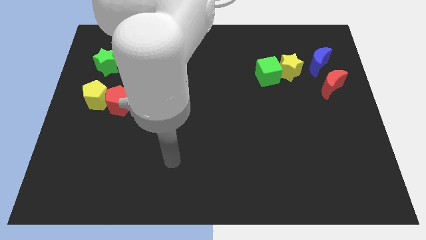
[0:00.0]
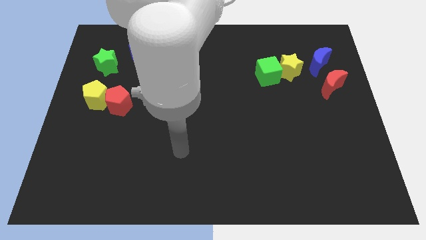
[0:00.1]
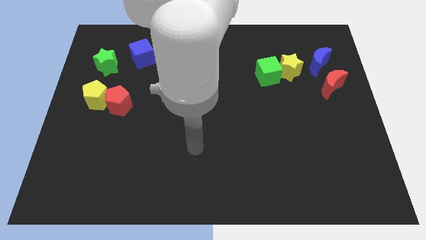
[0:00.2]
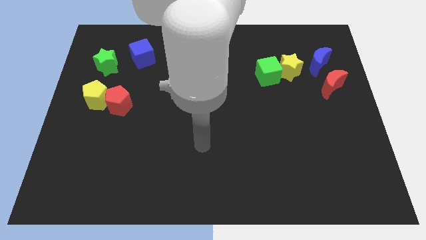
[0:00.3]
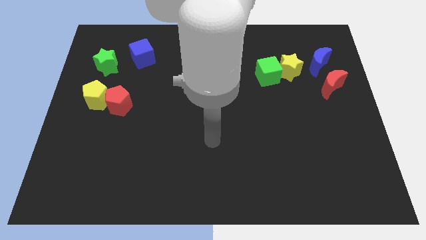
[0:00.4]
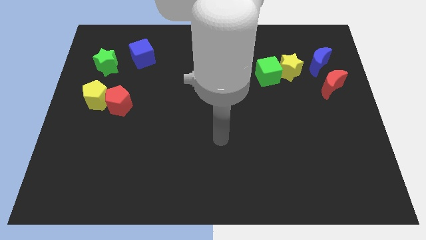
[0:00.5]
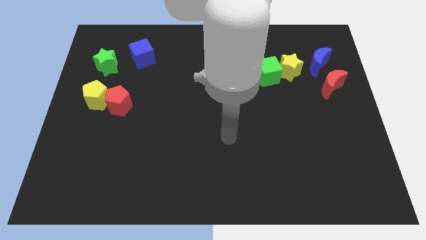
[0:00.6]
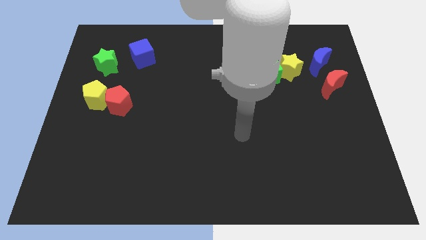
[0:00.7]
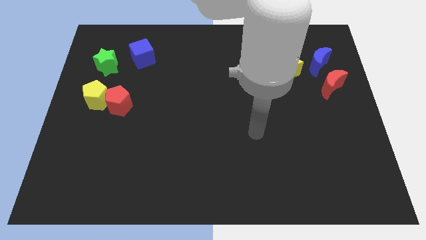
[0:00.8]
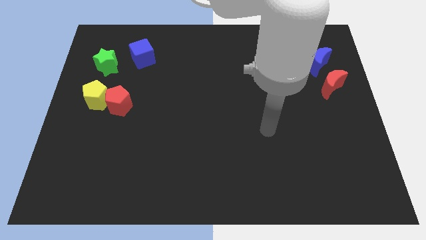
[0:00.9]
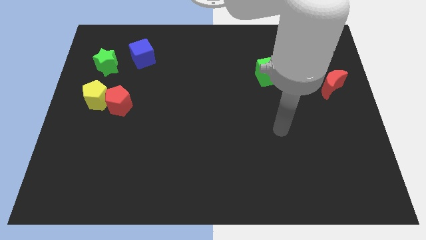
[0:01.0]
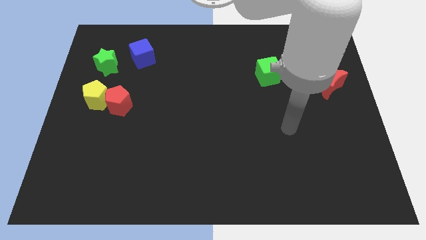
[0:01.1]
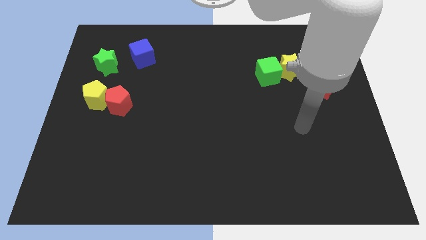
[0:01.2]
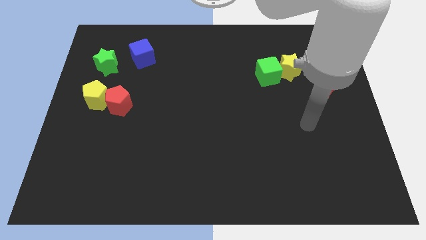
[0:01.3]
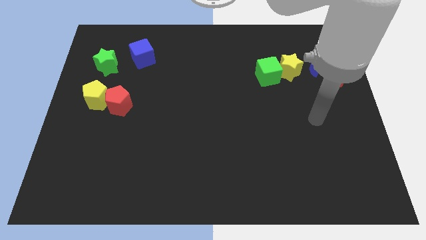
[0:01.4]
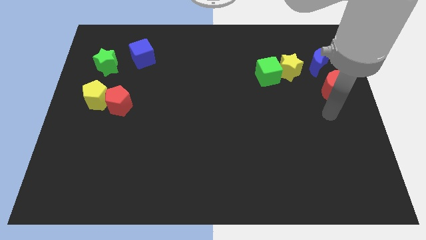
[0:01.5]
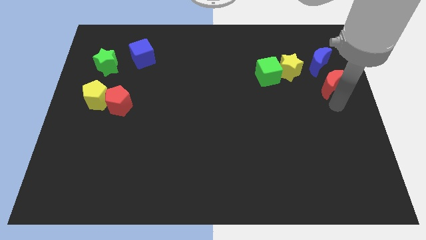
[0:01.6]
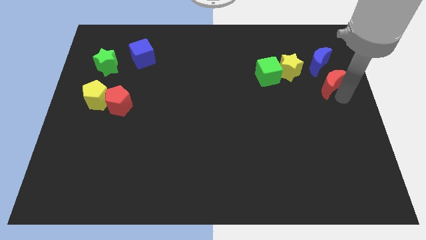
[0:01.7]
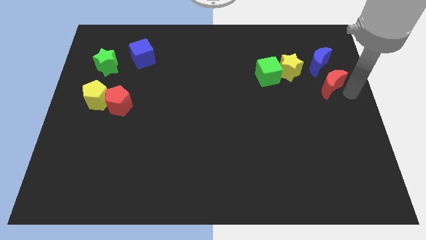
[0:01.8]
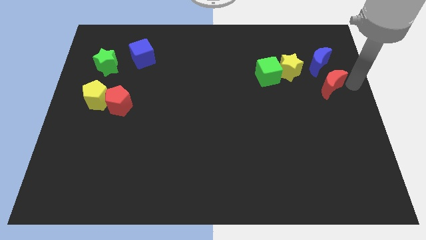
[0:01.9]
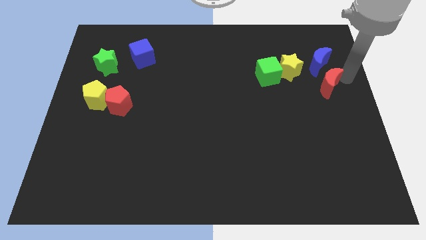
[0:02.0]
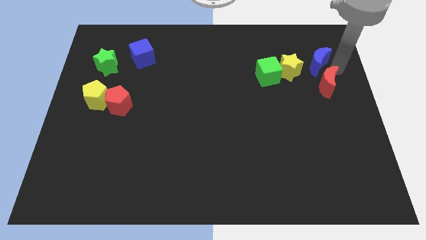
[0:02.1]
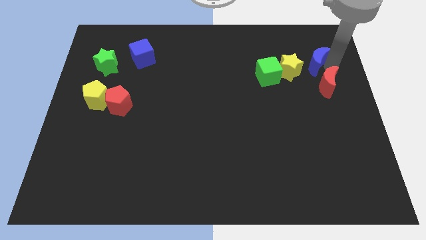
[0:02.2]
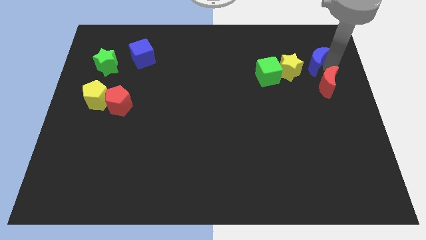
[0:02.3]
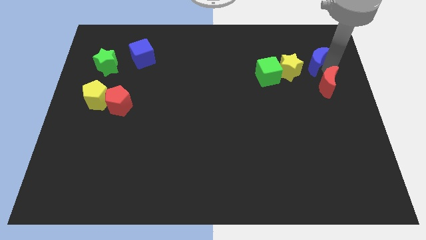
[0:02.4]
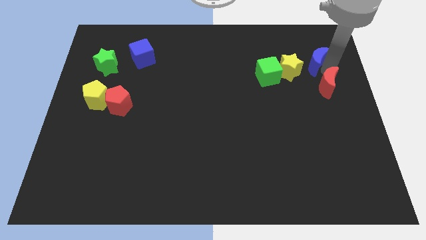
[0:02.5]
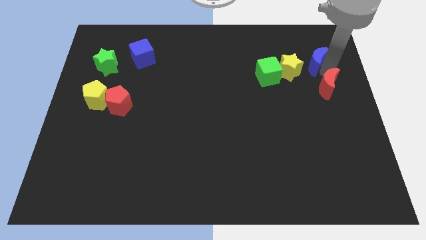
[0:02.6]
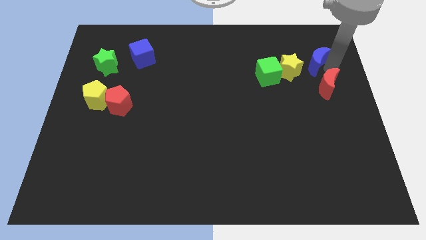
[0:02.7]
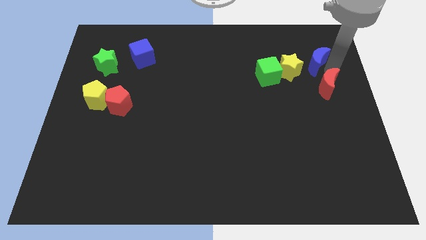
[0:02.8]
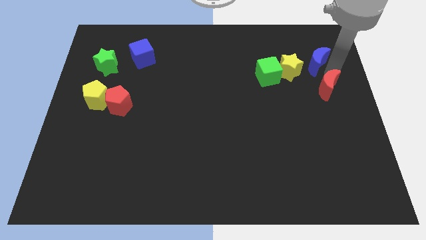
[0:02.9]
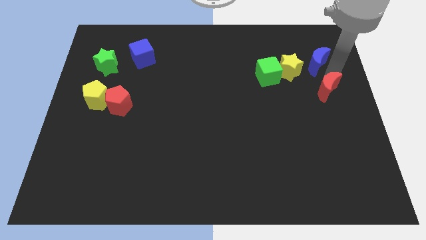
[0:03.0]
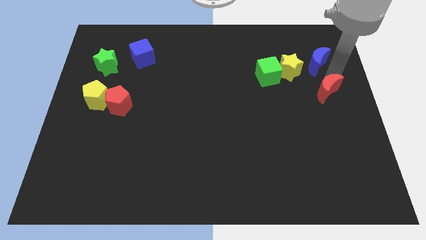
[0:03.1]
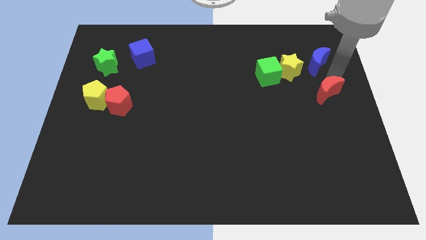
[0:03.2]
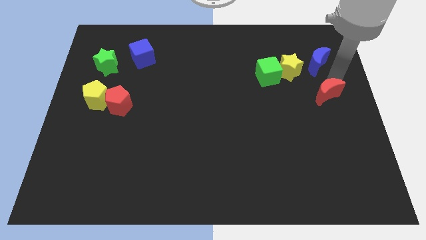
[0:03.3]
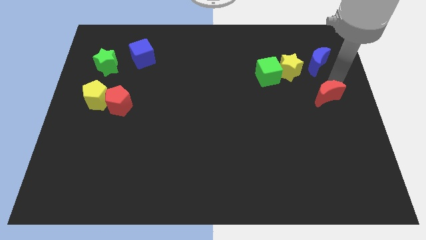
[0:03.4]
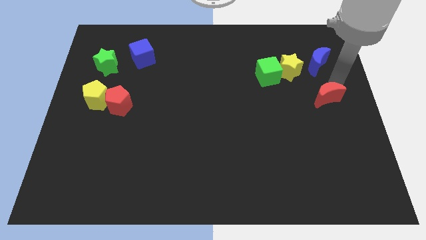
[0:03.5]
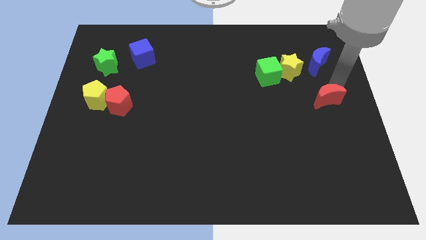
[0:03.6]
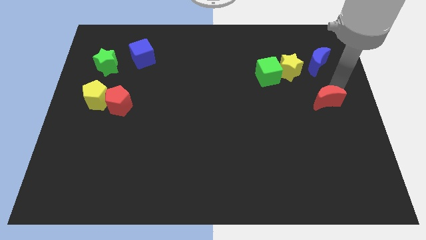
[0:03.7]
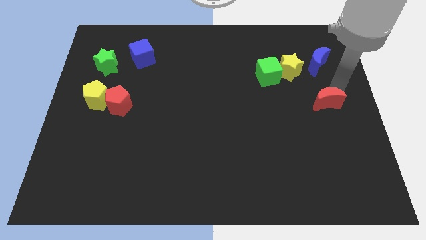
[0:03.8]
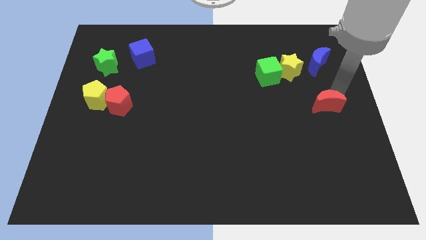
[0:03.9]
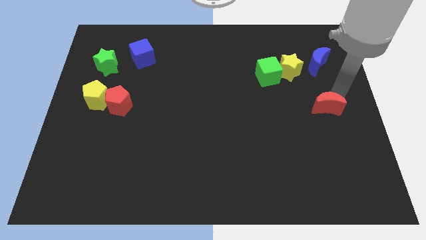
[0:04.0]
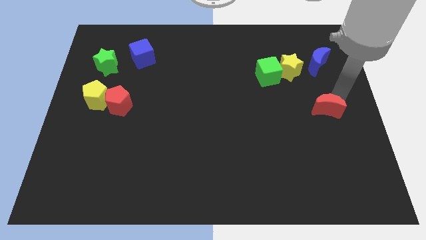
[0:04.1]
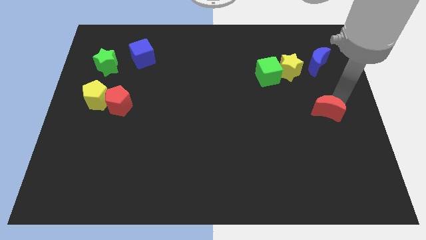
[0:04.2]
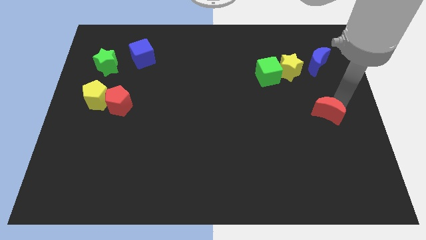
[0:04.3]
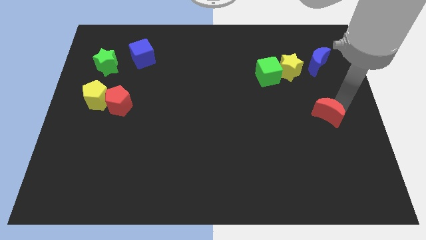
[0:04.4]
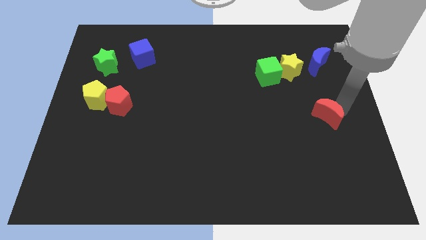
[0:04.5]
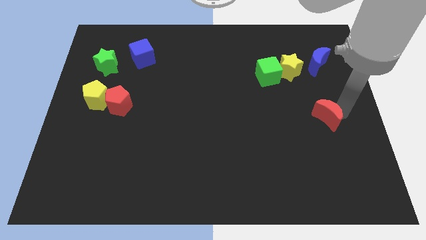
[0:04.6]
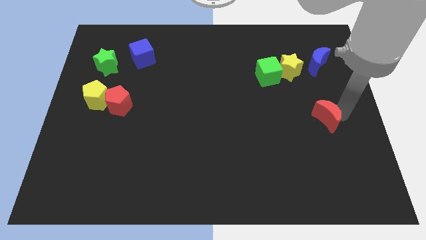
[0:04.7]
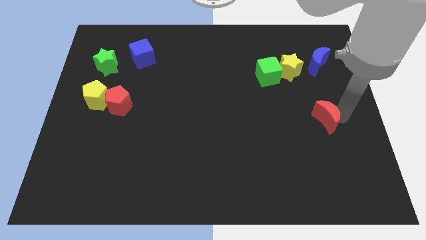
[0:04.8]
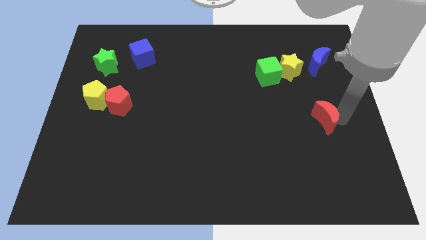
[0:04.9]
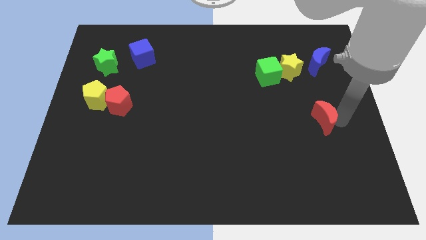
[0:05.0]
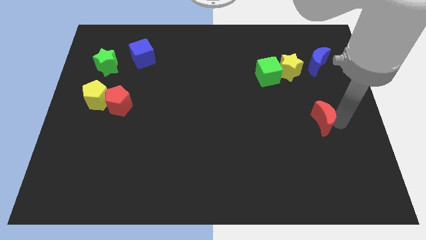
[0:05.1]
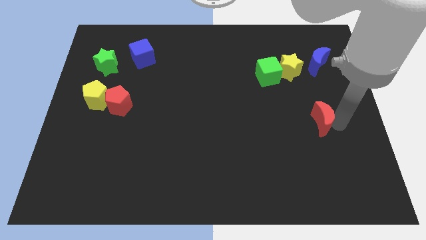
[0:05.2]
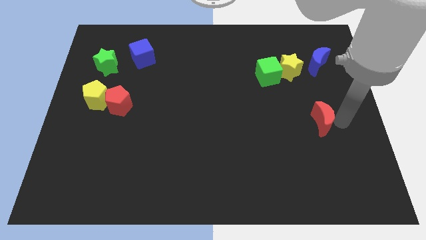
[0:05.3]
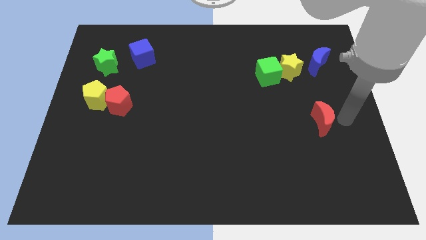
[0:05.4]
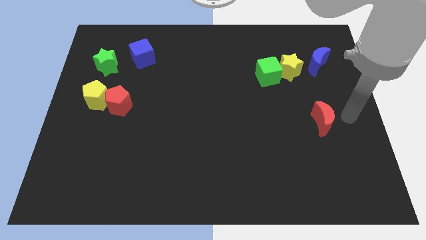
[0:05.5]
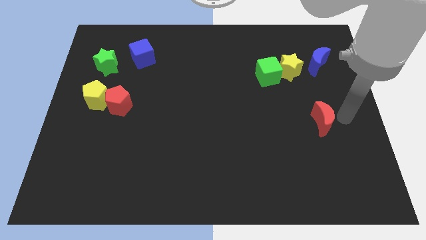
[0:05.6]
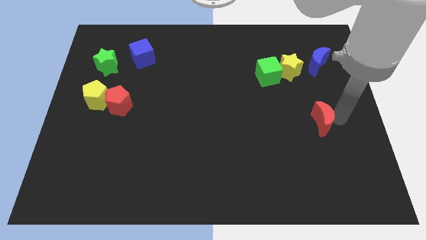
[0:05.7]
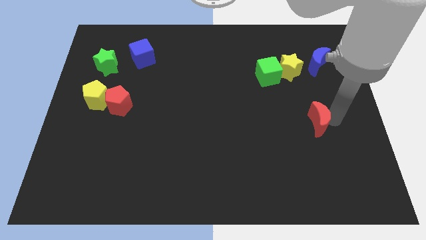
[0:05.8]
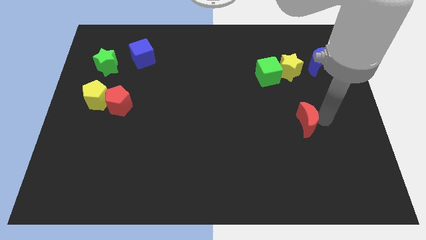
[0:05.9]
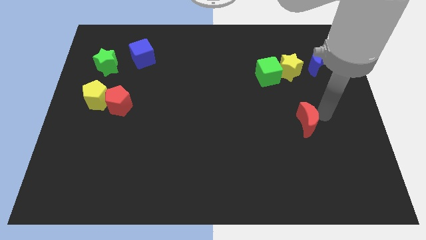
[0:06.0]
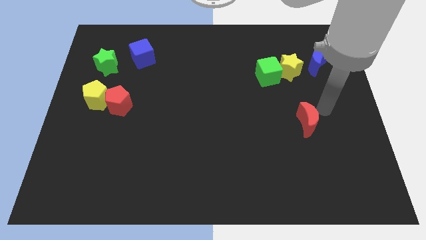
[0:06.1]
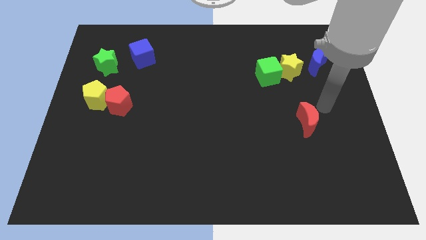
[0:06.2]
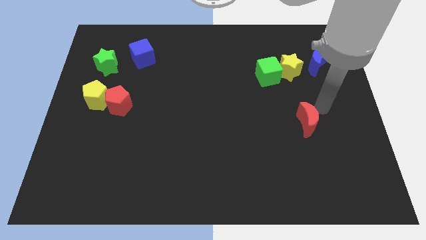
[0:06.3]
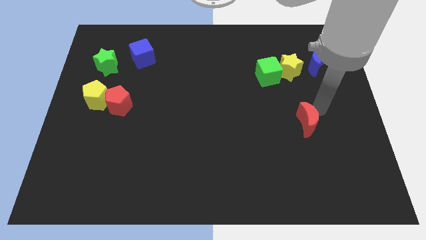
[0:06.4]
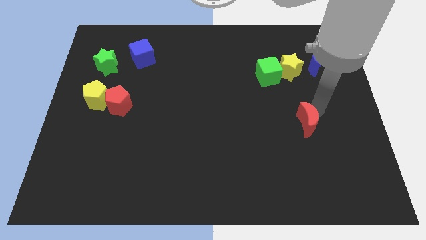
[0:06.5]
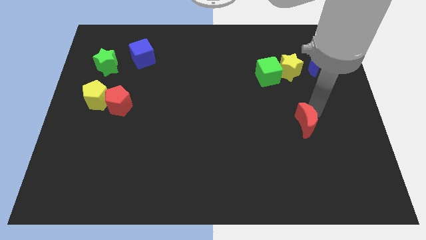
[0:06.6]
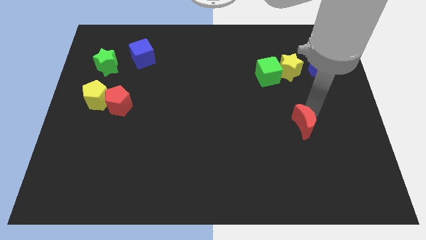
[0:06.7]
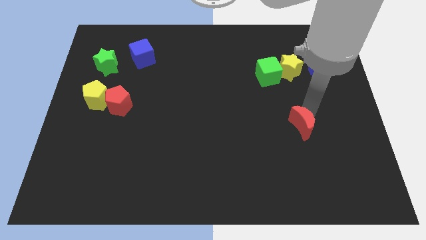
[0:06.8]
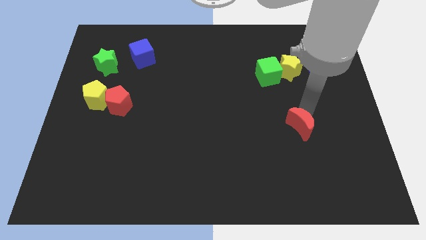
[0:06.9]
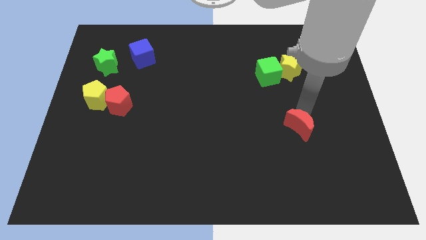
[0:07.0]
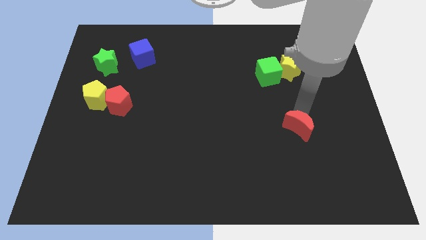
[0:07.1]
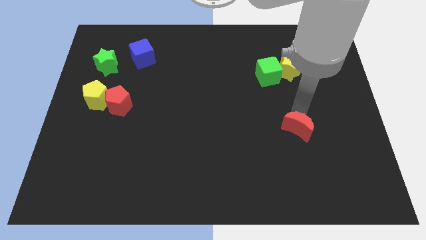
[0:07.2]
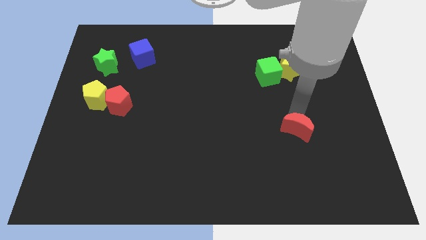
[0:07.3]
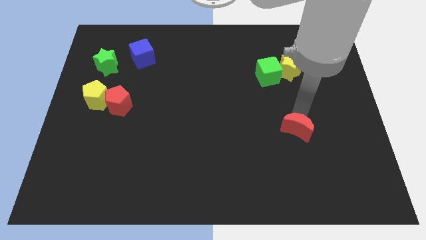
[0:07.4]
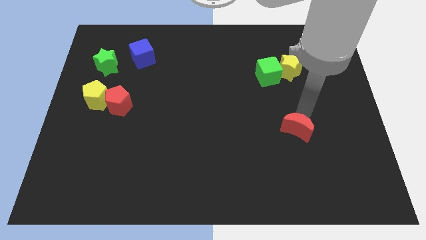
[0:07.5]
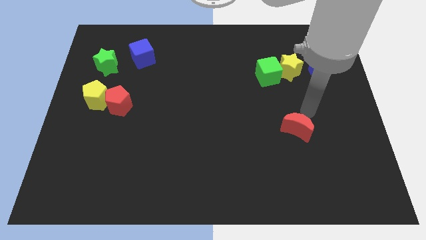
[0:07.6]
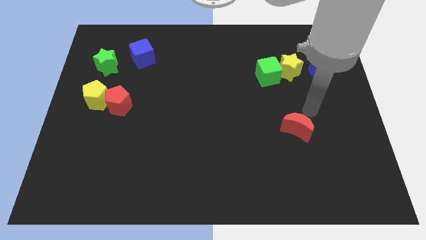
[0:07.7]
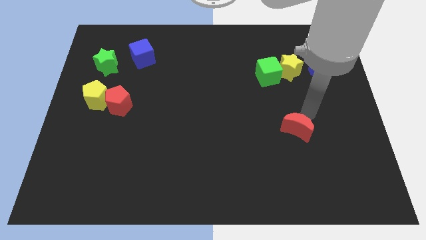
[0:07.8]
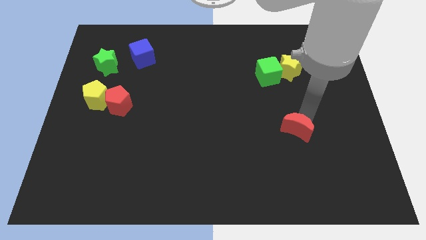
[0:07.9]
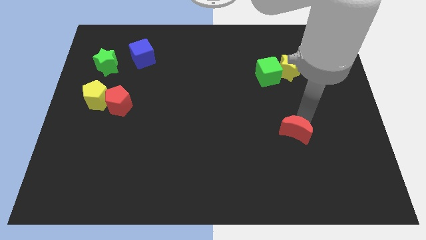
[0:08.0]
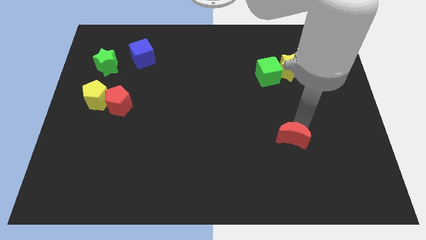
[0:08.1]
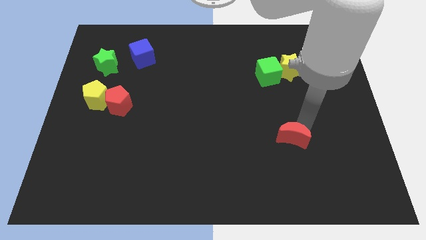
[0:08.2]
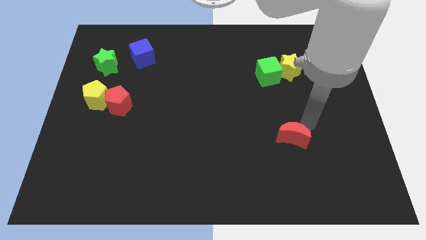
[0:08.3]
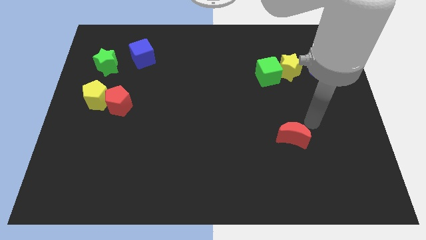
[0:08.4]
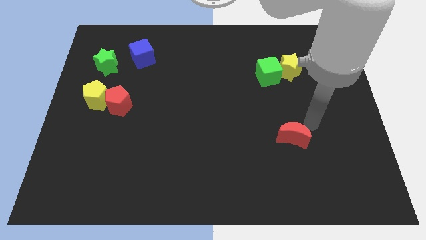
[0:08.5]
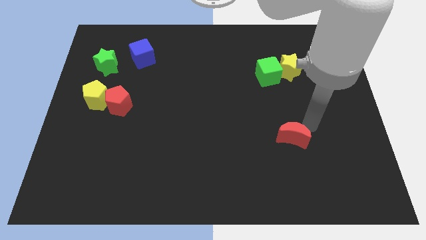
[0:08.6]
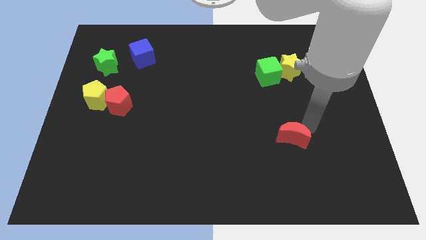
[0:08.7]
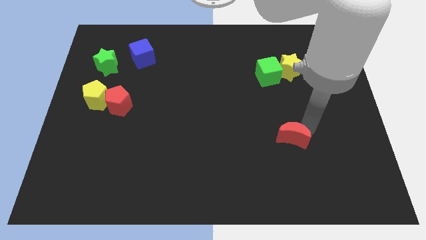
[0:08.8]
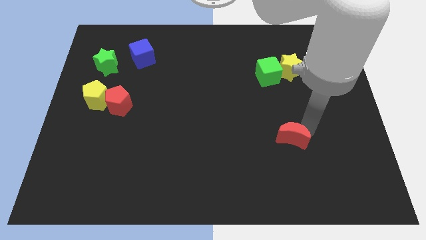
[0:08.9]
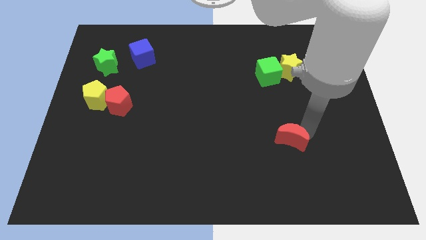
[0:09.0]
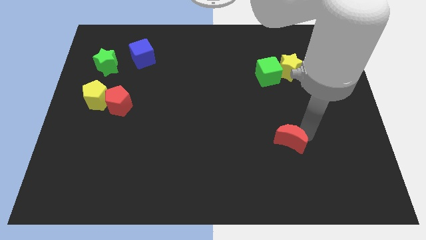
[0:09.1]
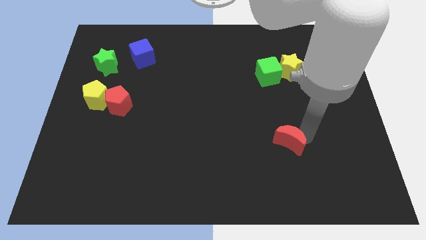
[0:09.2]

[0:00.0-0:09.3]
slide the red moon down and then to the left
